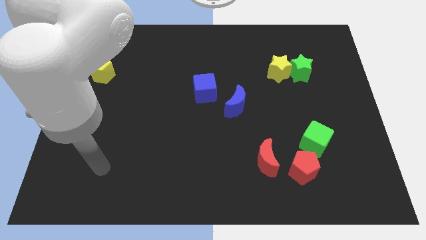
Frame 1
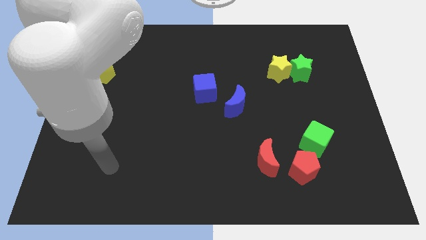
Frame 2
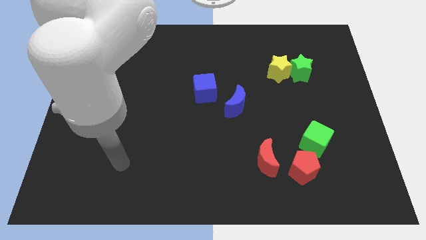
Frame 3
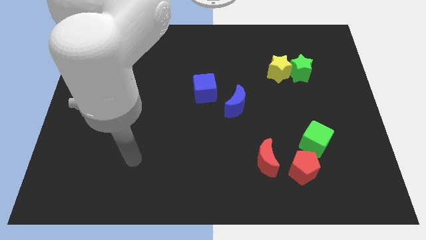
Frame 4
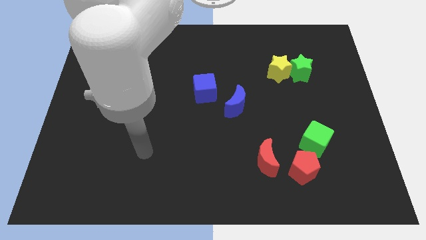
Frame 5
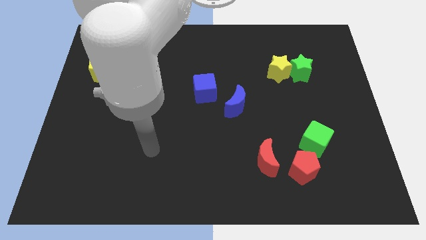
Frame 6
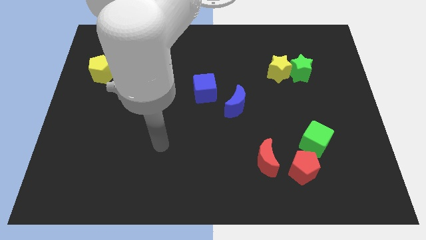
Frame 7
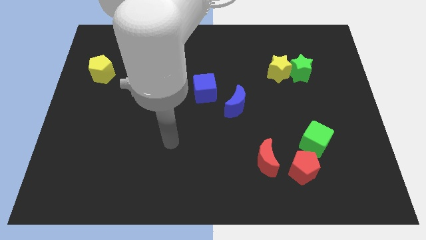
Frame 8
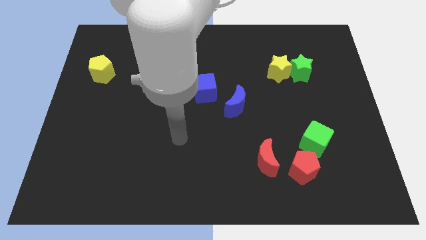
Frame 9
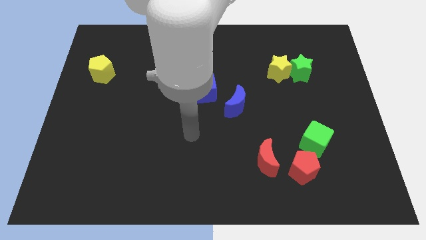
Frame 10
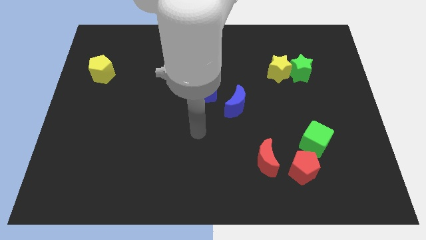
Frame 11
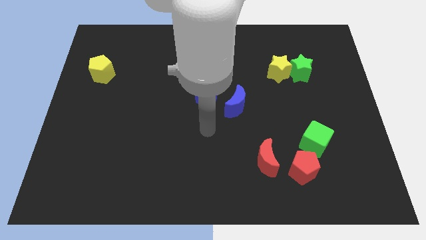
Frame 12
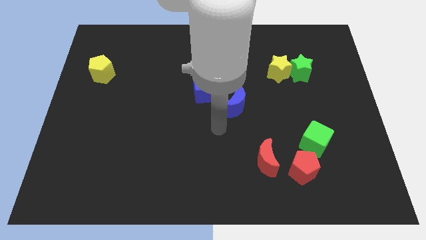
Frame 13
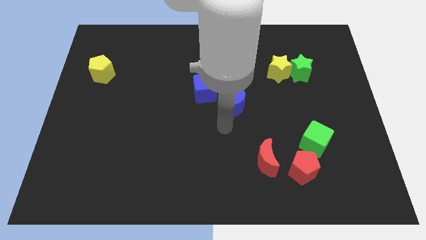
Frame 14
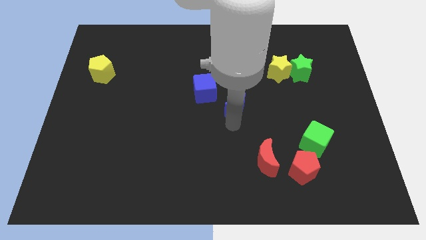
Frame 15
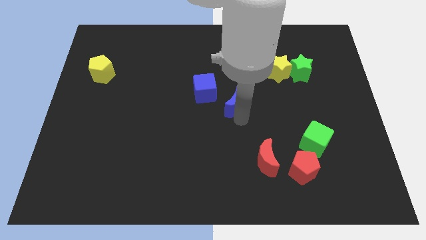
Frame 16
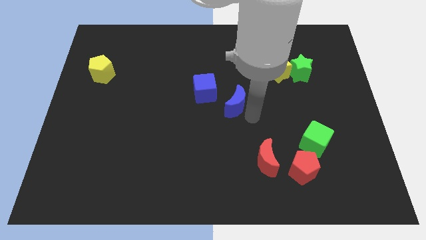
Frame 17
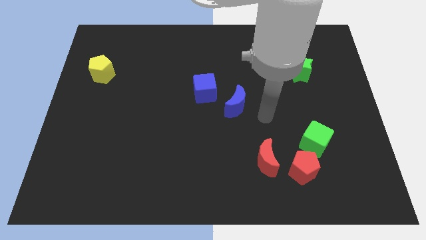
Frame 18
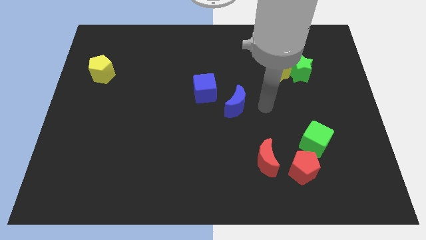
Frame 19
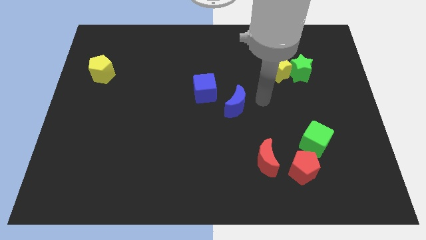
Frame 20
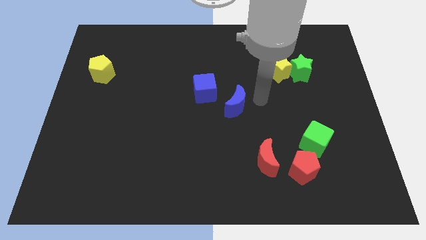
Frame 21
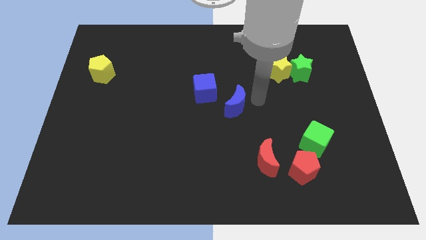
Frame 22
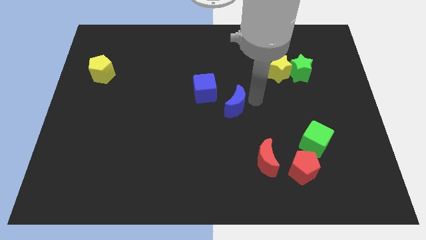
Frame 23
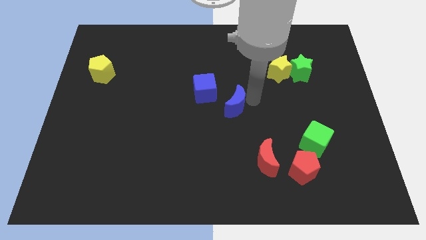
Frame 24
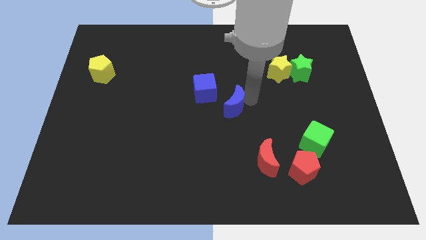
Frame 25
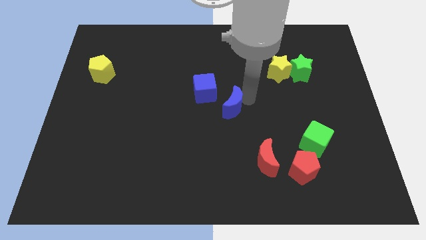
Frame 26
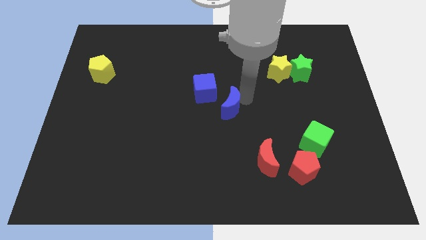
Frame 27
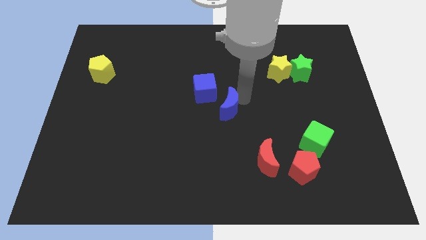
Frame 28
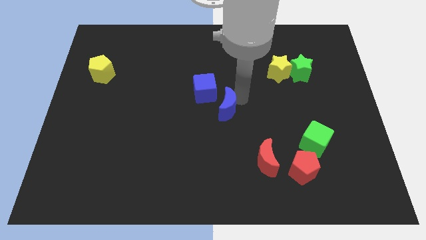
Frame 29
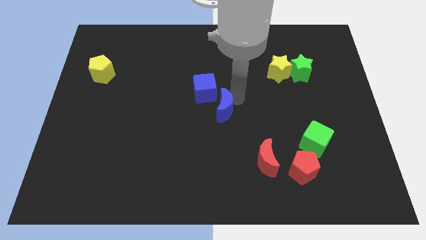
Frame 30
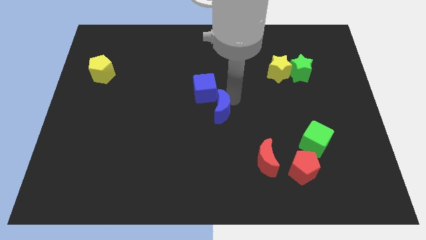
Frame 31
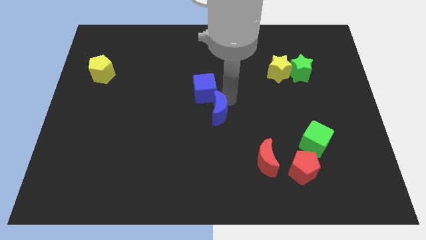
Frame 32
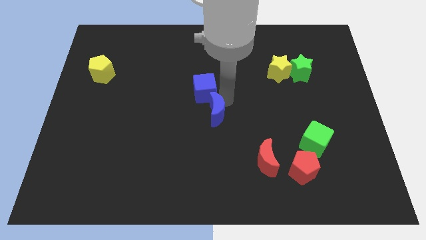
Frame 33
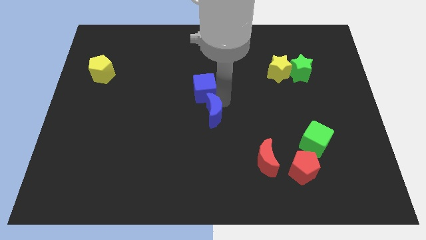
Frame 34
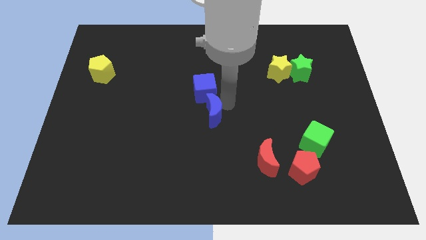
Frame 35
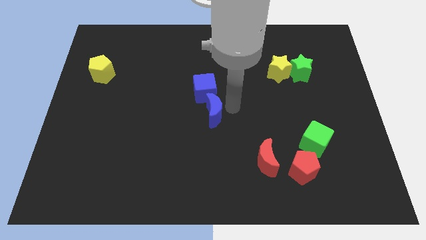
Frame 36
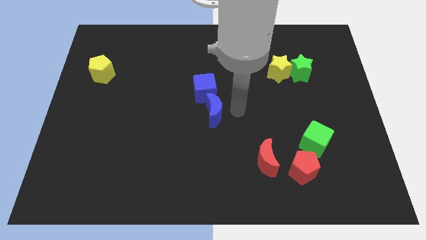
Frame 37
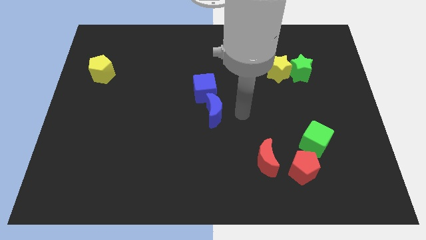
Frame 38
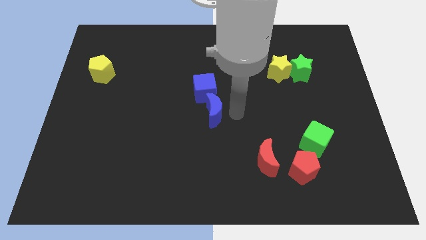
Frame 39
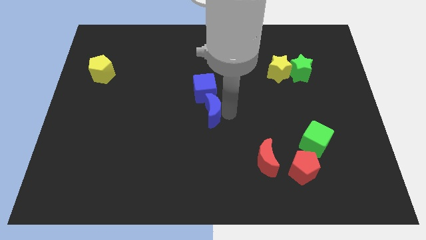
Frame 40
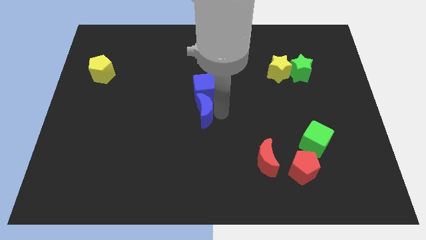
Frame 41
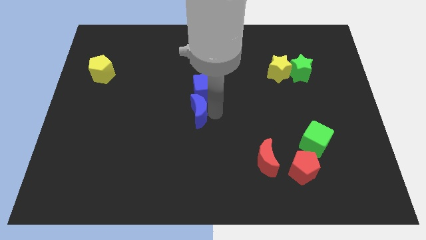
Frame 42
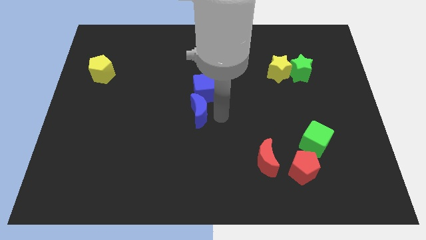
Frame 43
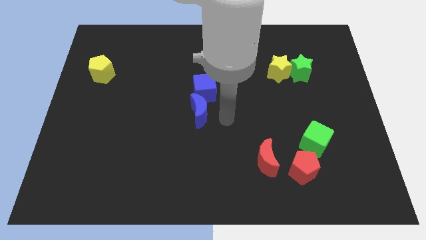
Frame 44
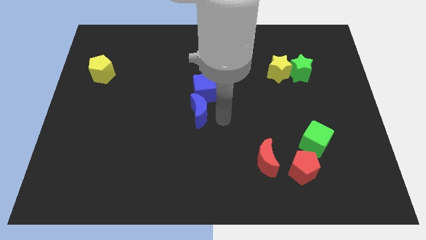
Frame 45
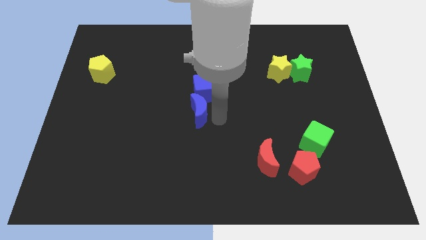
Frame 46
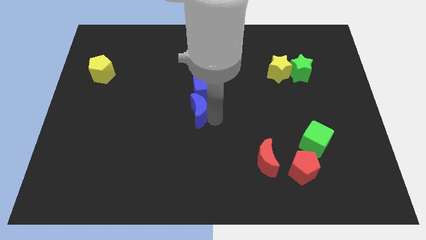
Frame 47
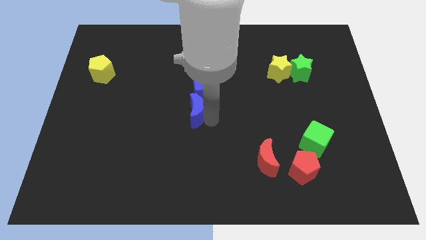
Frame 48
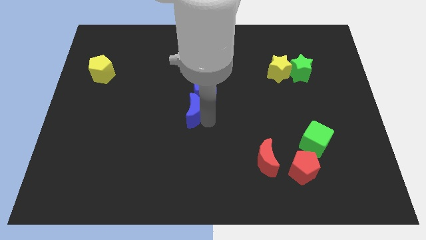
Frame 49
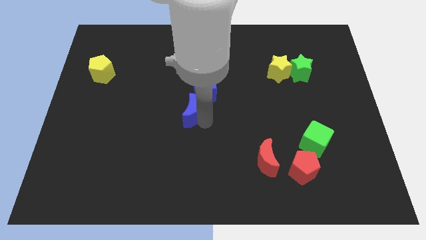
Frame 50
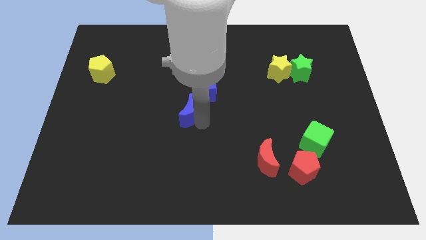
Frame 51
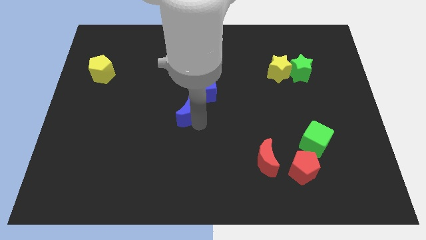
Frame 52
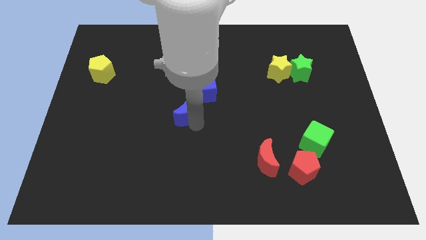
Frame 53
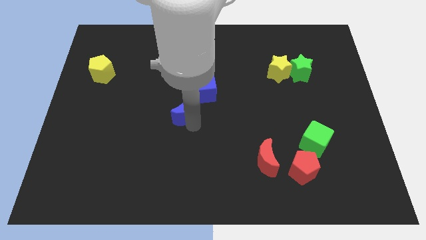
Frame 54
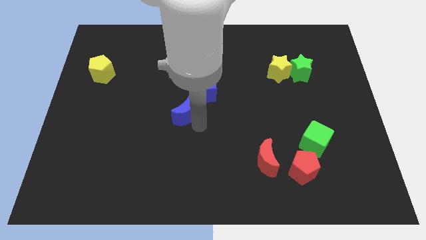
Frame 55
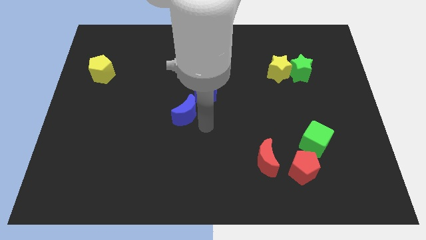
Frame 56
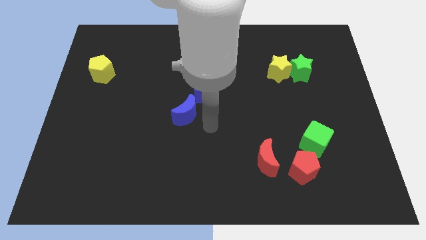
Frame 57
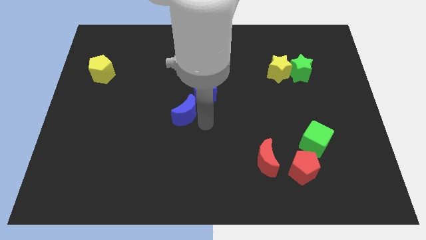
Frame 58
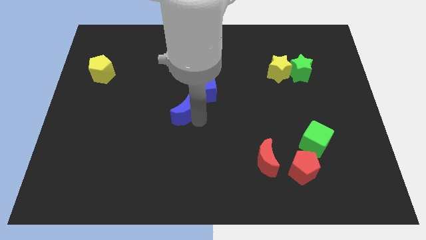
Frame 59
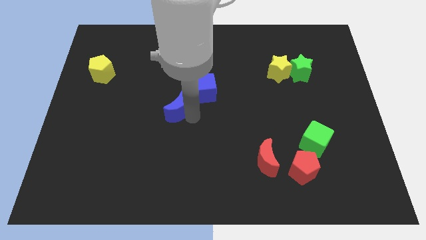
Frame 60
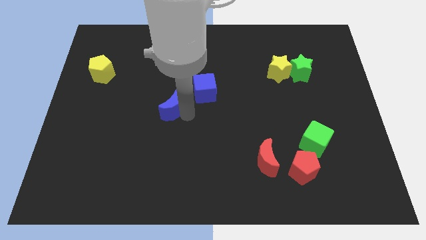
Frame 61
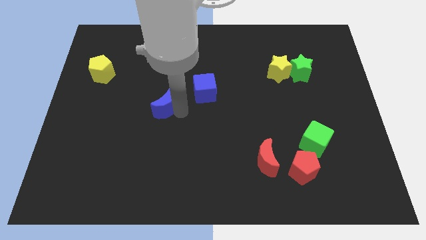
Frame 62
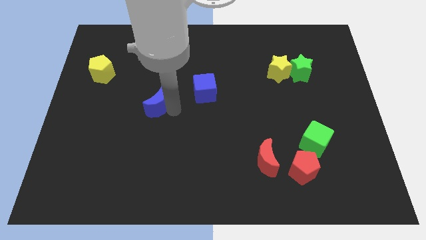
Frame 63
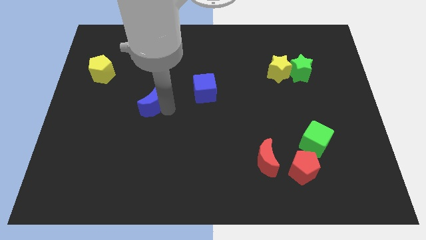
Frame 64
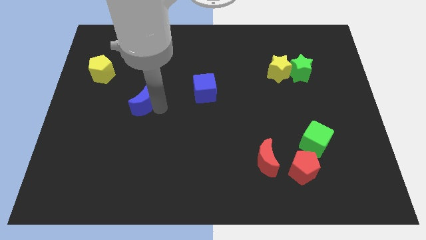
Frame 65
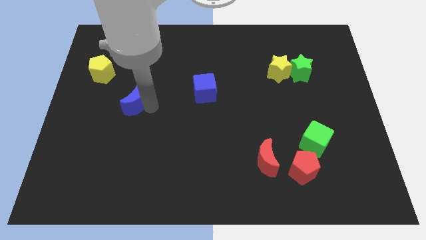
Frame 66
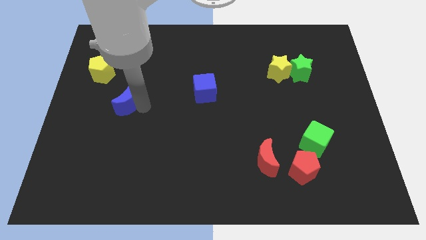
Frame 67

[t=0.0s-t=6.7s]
push the blue moon to the bottom right of the yellow pentagon
